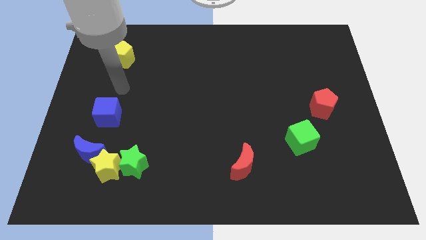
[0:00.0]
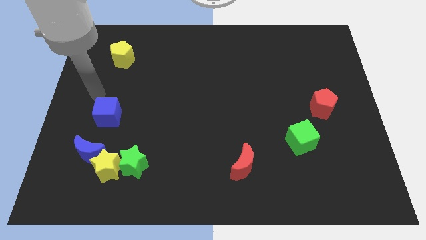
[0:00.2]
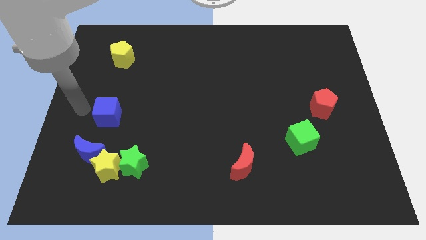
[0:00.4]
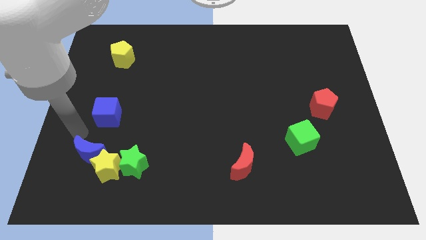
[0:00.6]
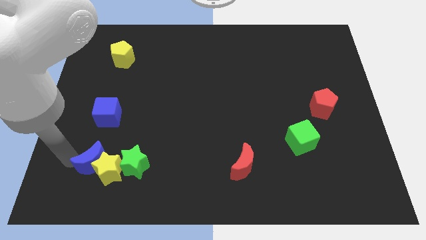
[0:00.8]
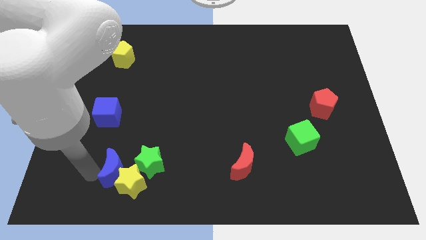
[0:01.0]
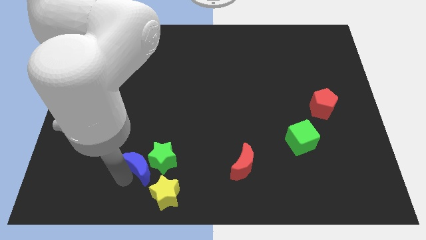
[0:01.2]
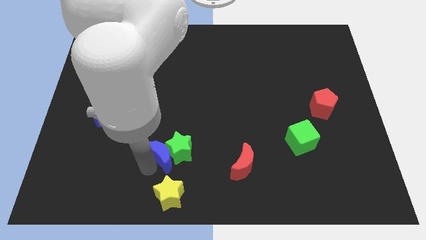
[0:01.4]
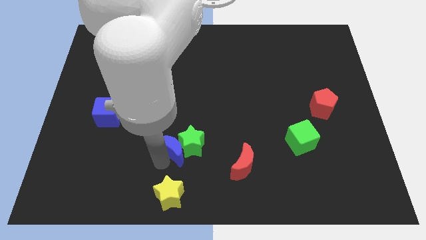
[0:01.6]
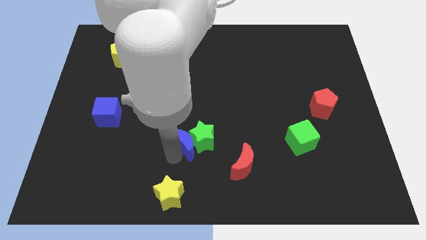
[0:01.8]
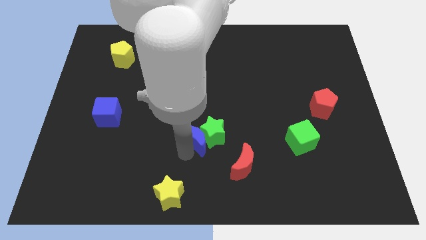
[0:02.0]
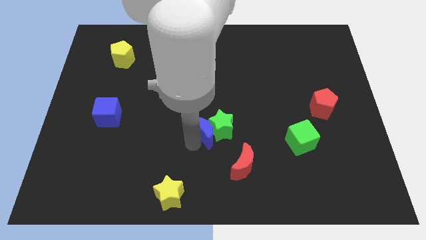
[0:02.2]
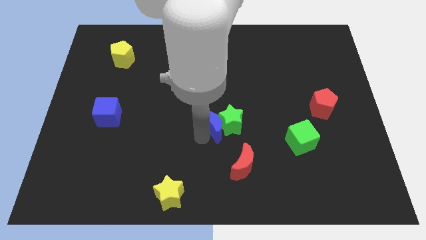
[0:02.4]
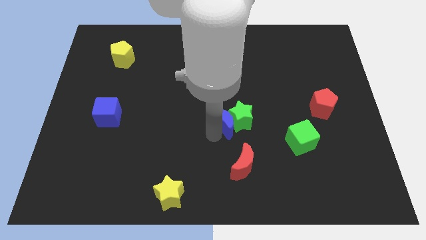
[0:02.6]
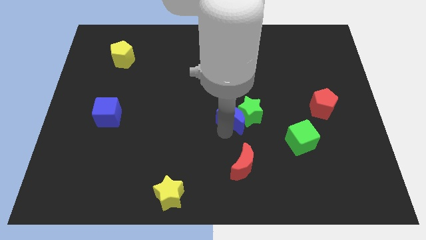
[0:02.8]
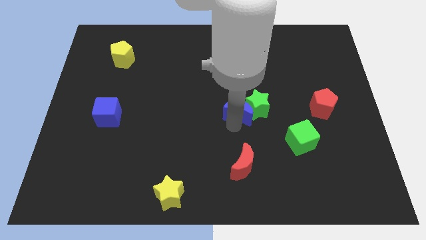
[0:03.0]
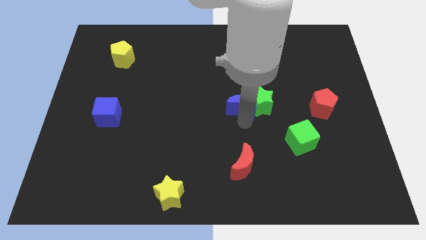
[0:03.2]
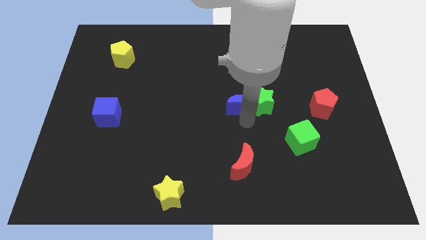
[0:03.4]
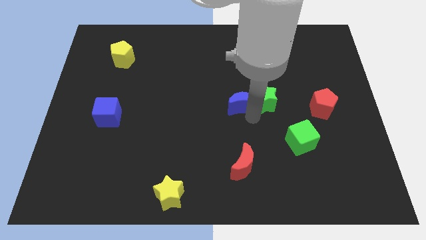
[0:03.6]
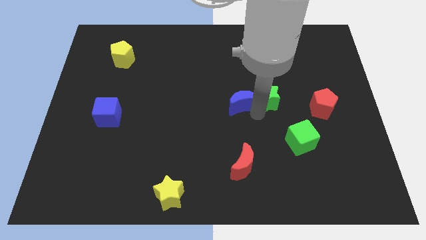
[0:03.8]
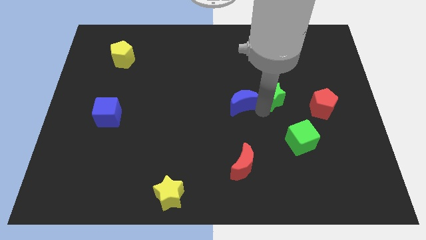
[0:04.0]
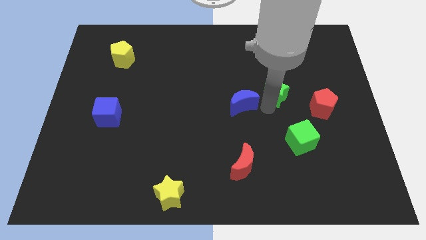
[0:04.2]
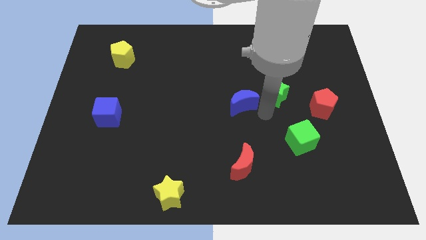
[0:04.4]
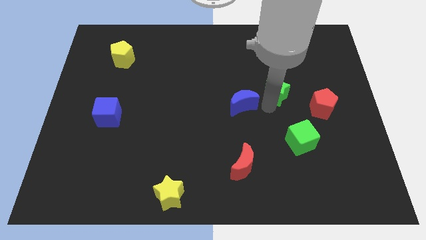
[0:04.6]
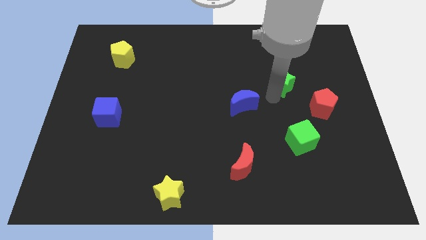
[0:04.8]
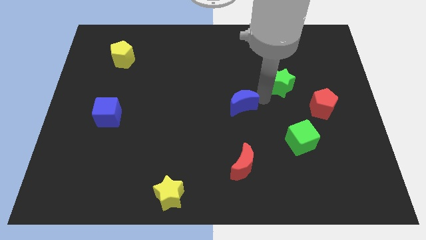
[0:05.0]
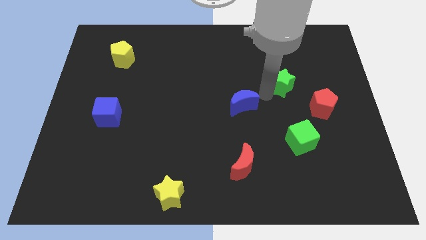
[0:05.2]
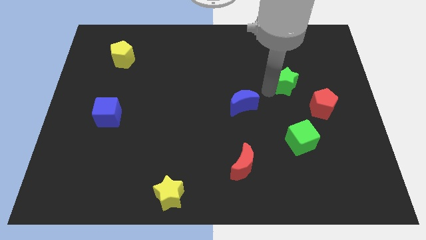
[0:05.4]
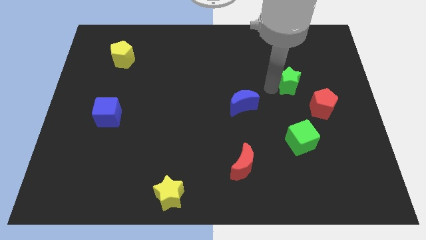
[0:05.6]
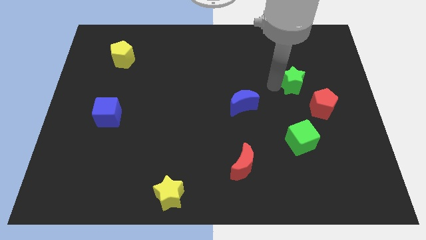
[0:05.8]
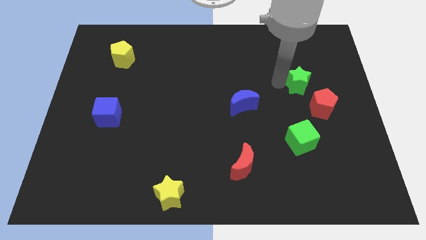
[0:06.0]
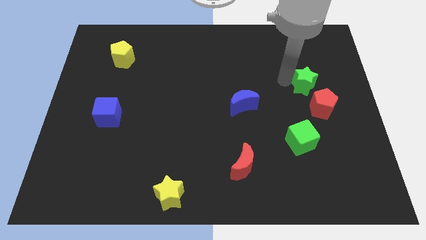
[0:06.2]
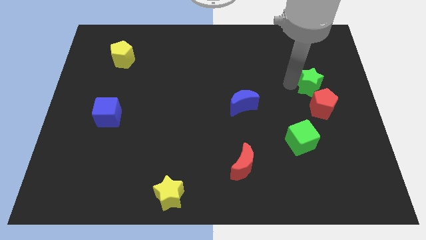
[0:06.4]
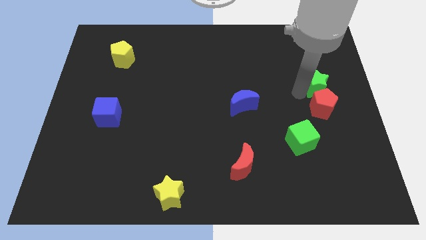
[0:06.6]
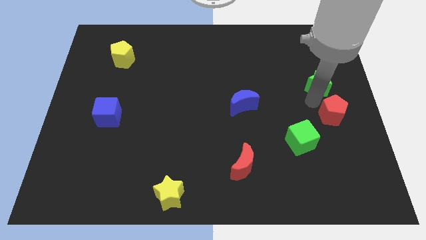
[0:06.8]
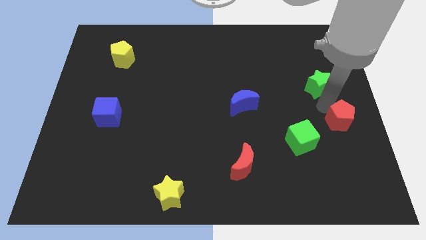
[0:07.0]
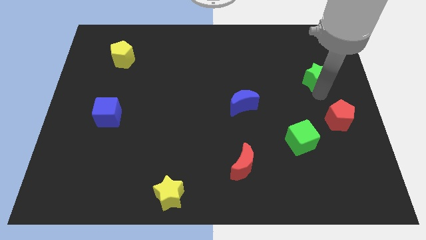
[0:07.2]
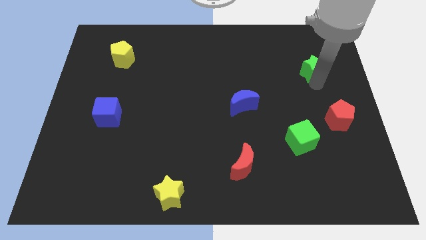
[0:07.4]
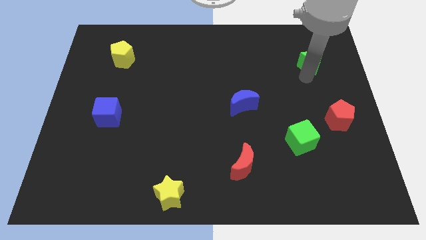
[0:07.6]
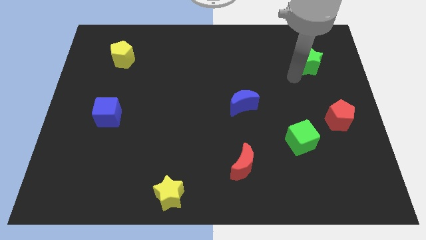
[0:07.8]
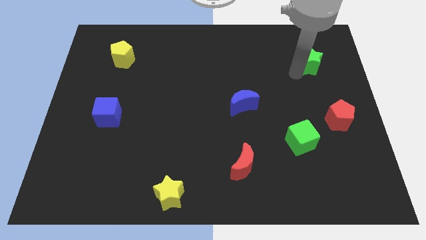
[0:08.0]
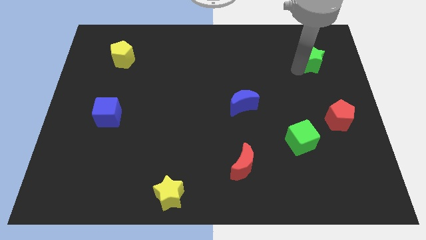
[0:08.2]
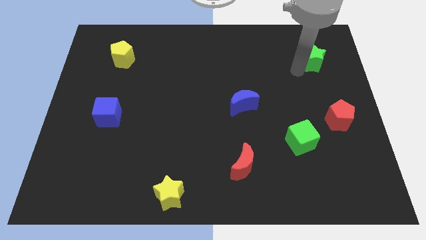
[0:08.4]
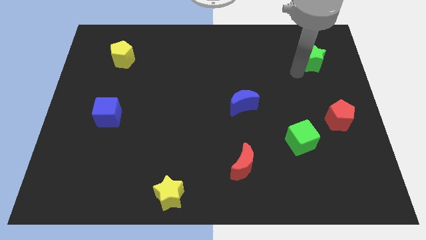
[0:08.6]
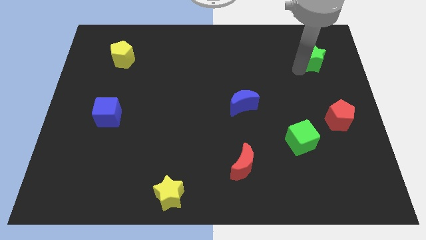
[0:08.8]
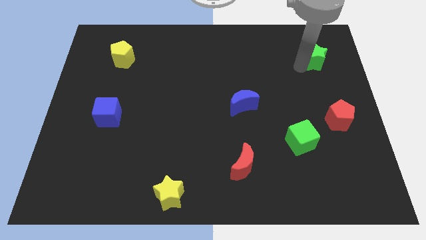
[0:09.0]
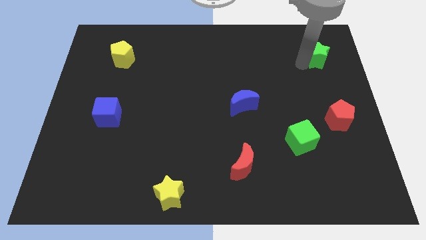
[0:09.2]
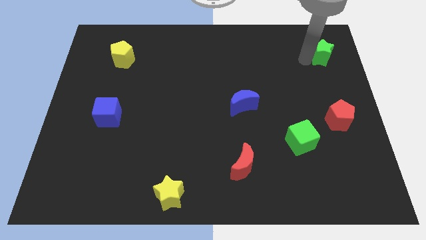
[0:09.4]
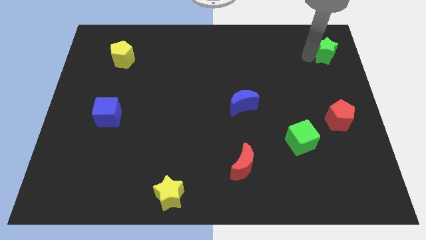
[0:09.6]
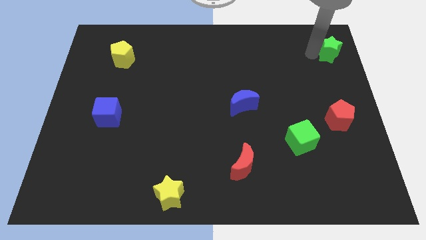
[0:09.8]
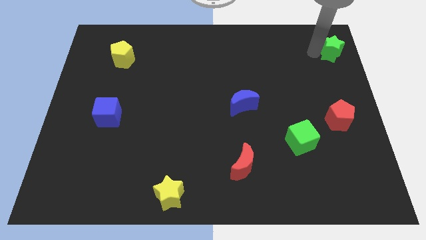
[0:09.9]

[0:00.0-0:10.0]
put the green star to the upper right corner

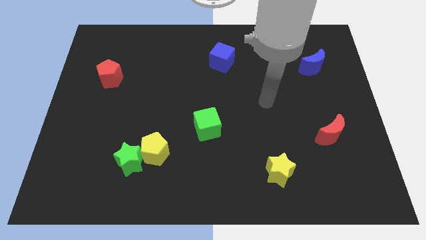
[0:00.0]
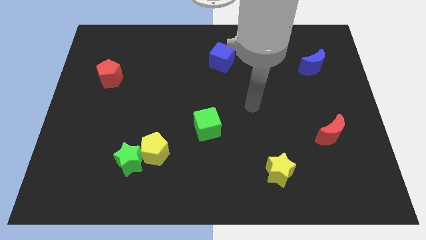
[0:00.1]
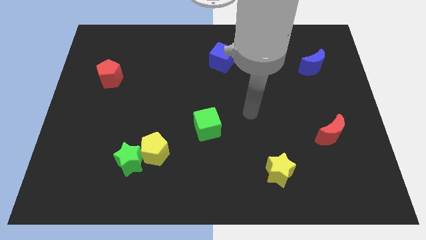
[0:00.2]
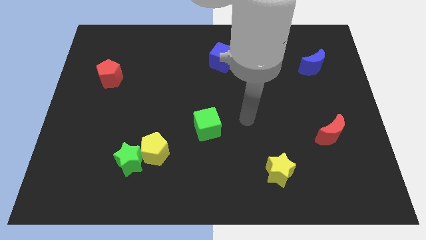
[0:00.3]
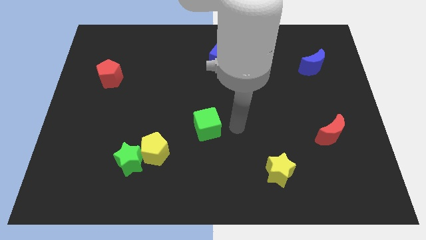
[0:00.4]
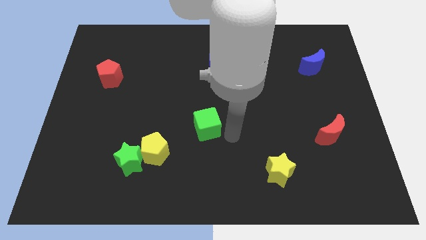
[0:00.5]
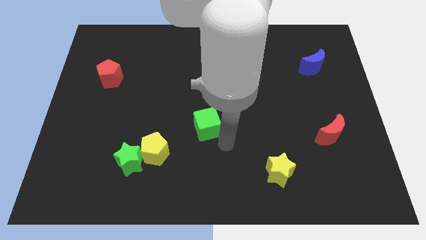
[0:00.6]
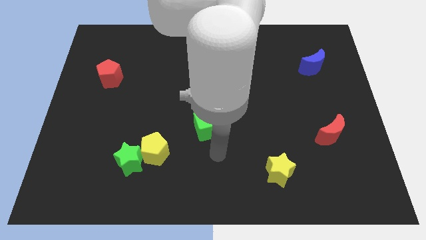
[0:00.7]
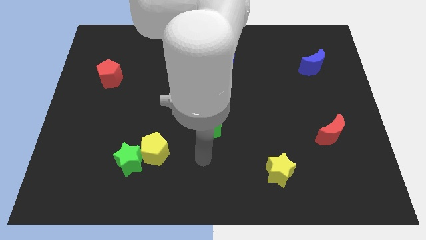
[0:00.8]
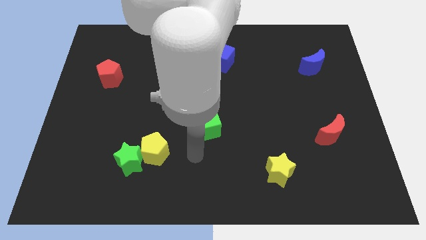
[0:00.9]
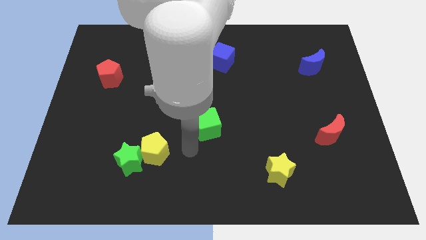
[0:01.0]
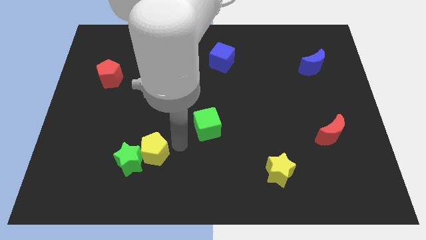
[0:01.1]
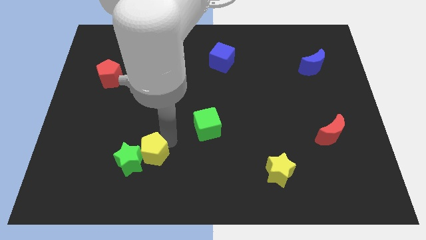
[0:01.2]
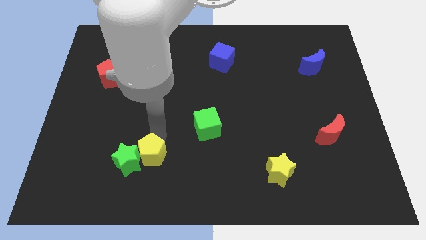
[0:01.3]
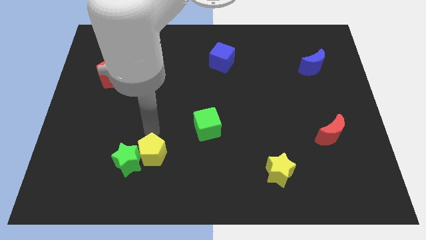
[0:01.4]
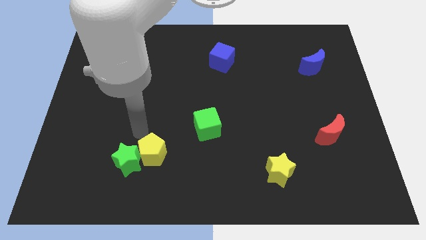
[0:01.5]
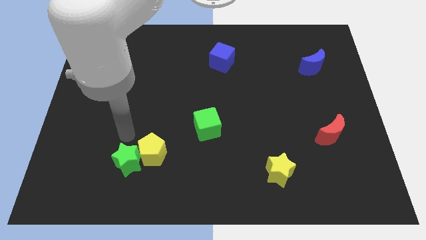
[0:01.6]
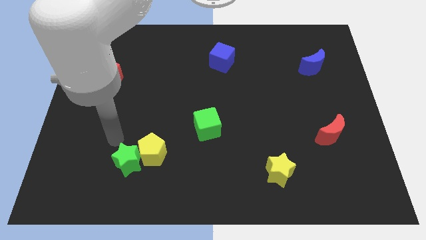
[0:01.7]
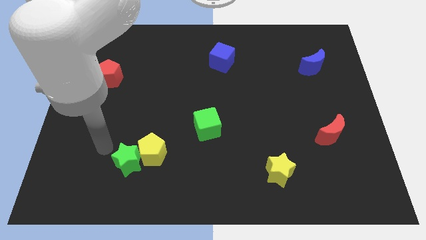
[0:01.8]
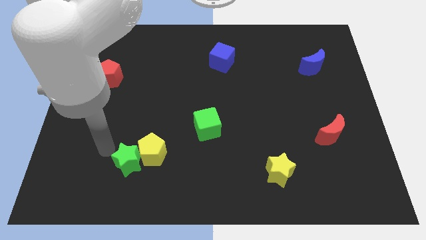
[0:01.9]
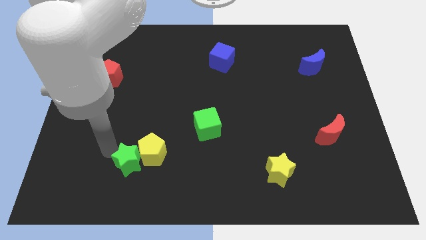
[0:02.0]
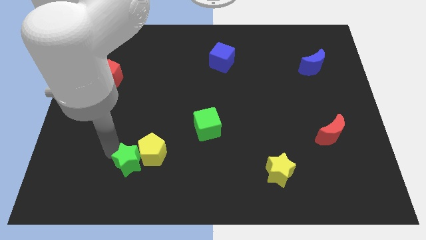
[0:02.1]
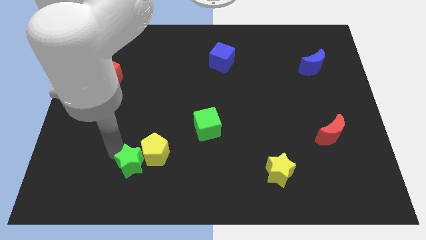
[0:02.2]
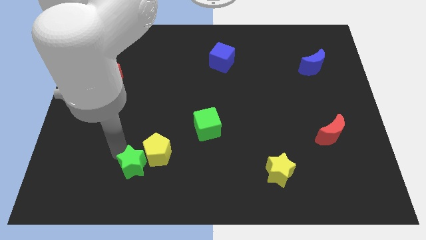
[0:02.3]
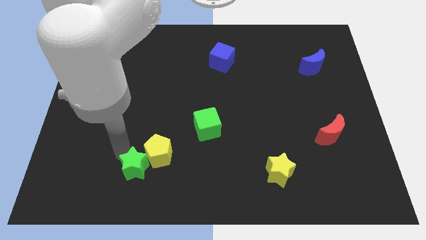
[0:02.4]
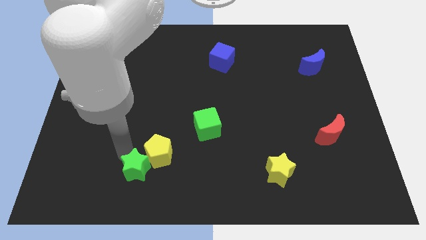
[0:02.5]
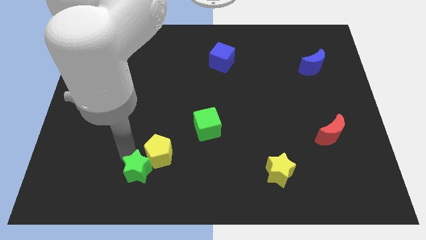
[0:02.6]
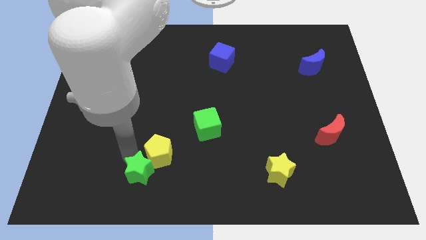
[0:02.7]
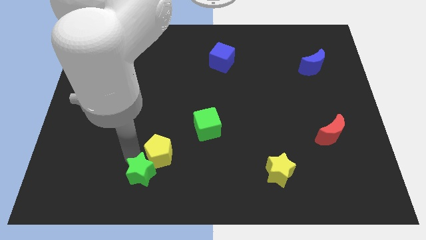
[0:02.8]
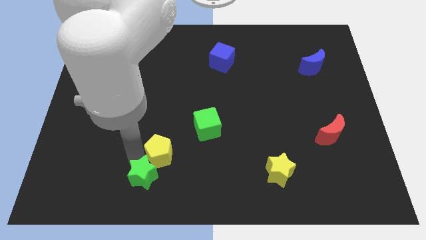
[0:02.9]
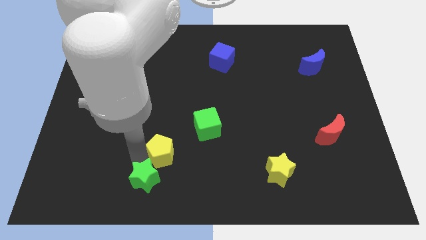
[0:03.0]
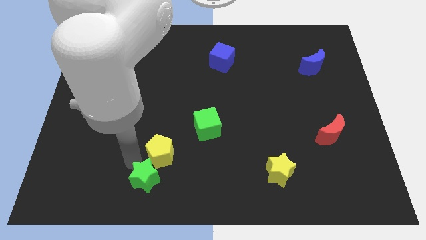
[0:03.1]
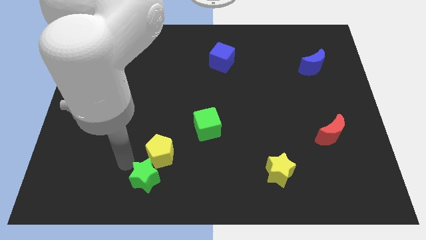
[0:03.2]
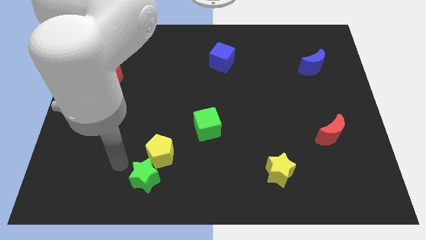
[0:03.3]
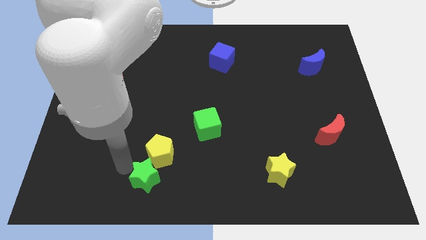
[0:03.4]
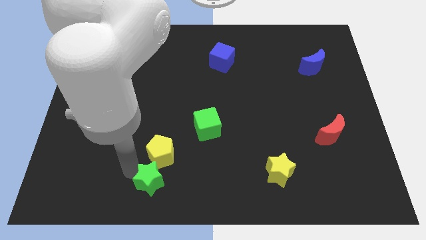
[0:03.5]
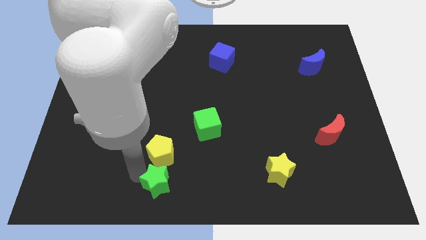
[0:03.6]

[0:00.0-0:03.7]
push the green star to the bottom side
